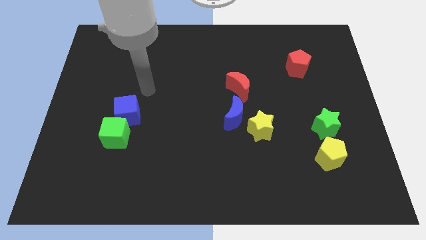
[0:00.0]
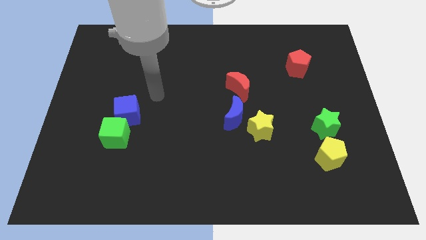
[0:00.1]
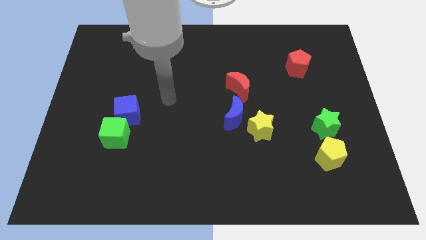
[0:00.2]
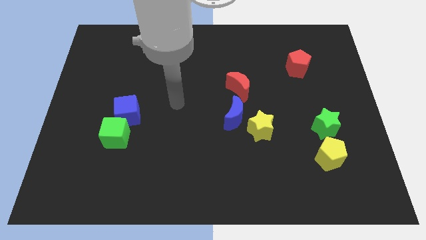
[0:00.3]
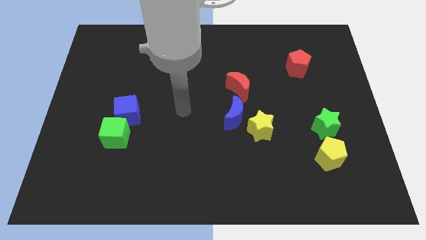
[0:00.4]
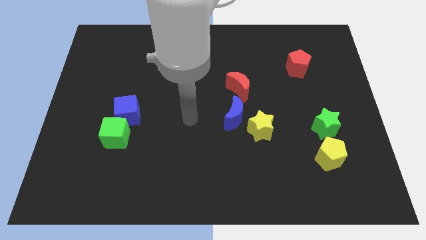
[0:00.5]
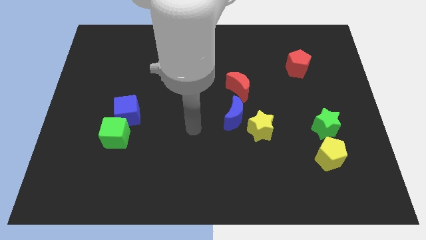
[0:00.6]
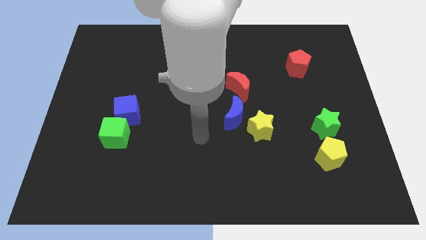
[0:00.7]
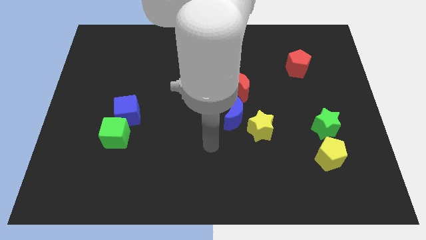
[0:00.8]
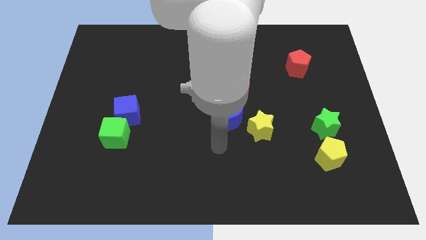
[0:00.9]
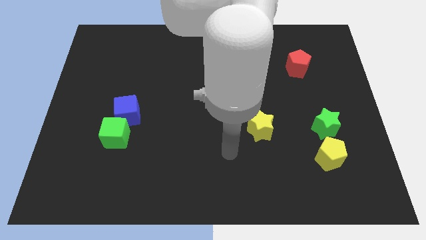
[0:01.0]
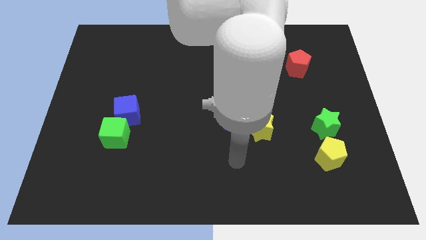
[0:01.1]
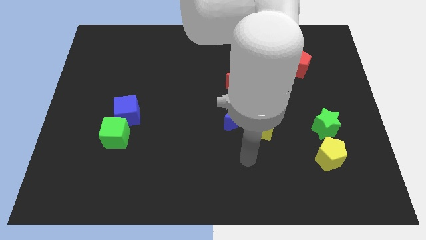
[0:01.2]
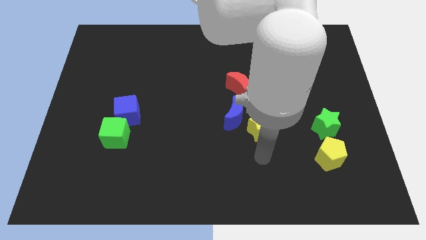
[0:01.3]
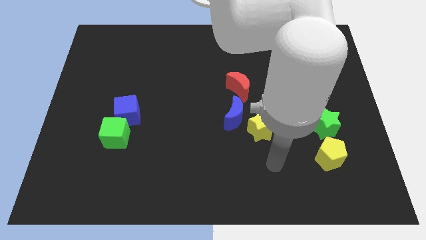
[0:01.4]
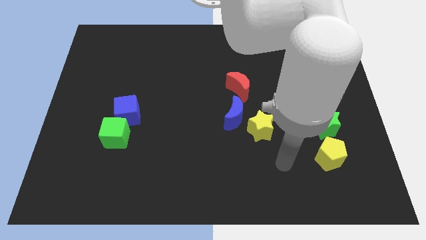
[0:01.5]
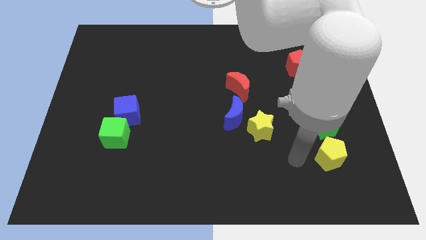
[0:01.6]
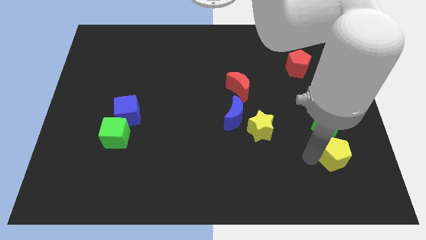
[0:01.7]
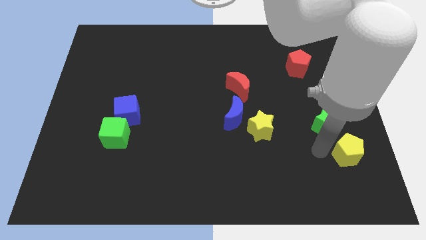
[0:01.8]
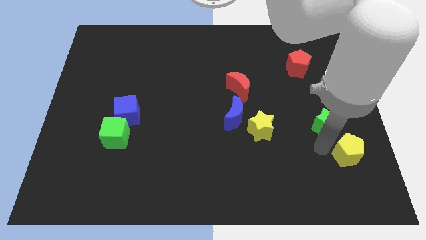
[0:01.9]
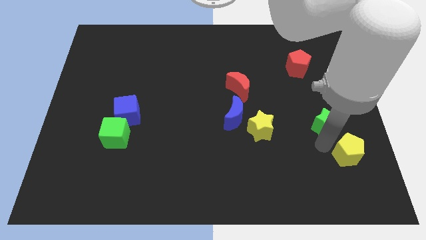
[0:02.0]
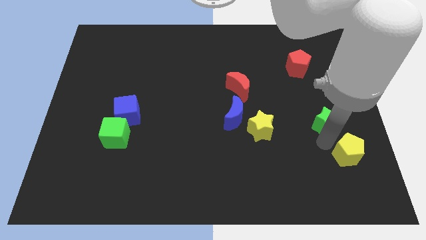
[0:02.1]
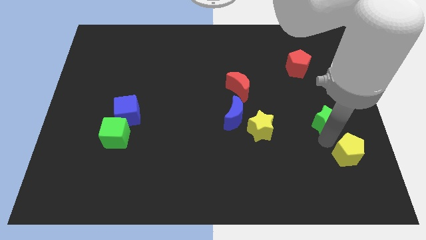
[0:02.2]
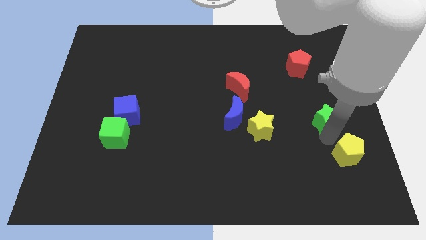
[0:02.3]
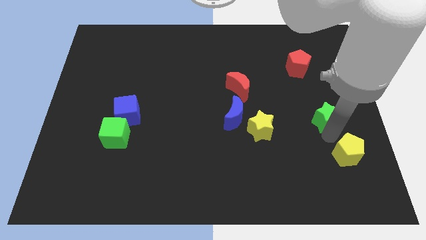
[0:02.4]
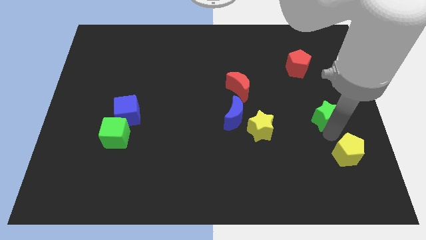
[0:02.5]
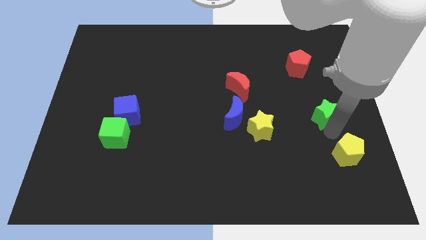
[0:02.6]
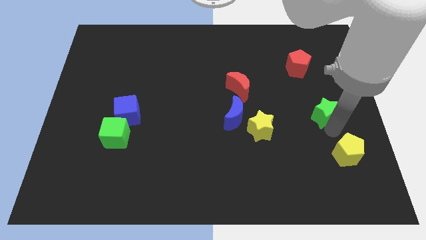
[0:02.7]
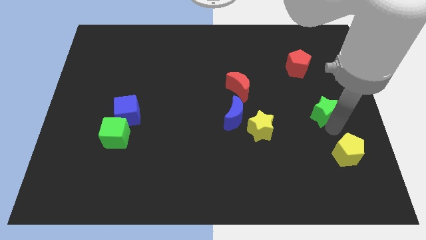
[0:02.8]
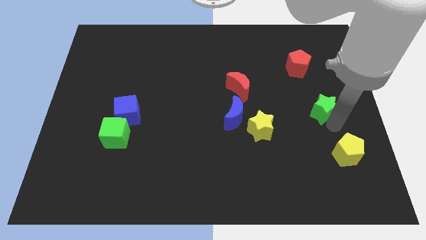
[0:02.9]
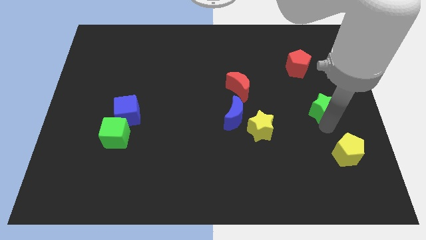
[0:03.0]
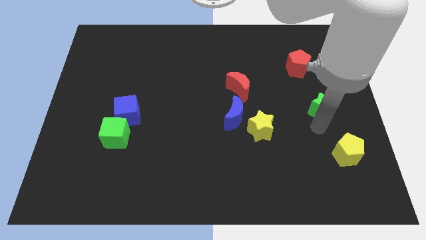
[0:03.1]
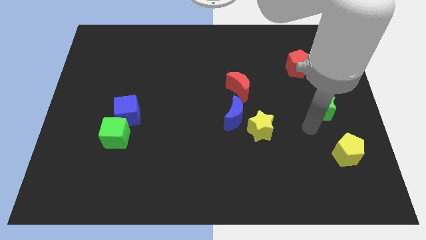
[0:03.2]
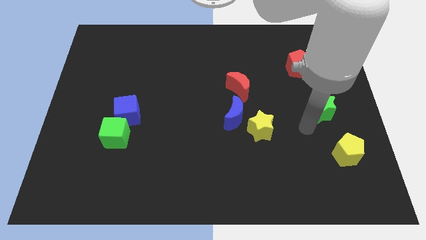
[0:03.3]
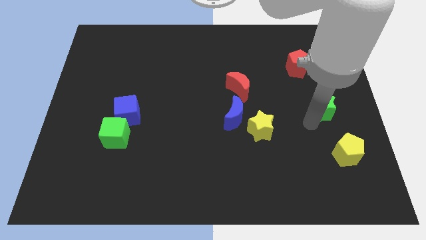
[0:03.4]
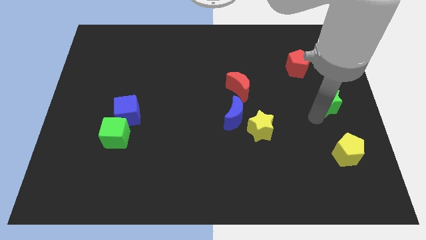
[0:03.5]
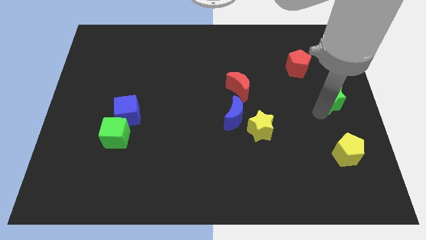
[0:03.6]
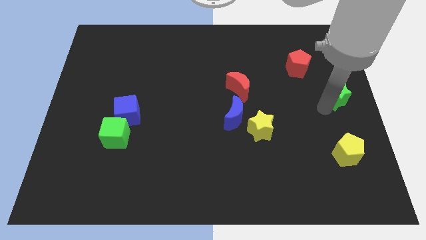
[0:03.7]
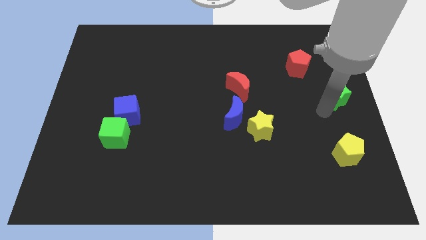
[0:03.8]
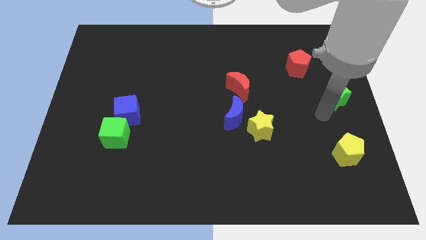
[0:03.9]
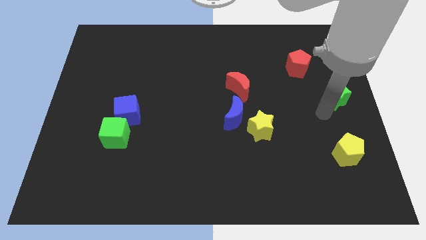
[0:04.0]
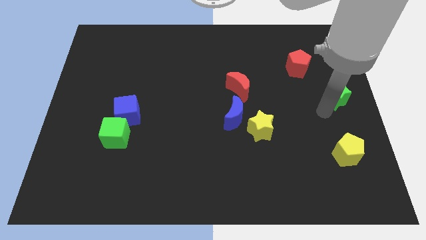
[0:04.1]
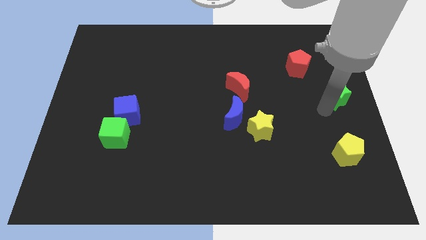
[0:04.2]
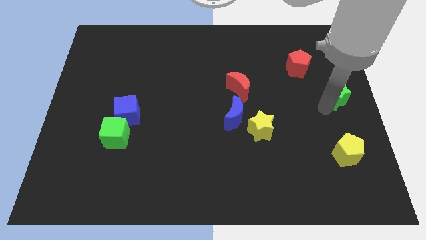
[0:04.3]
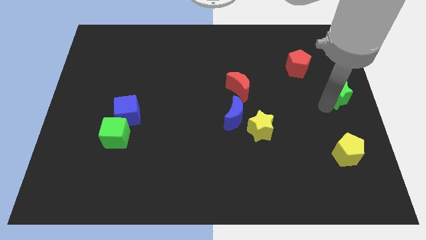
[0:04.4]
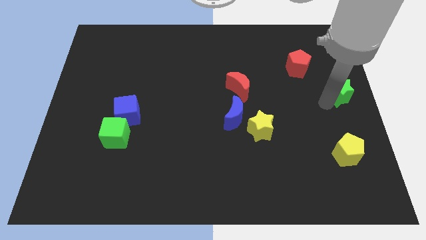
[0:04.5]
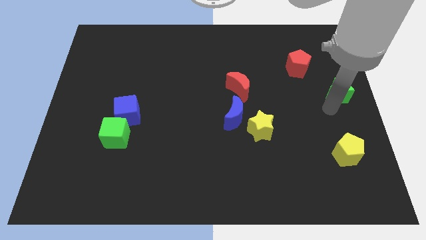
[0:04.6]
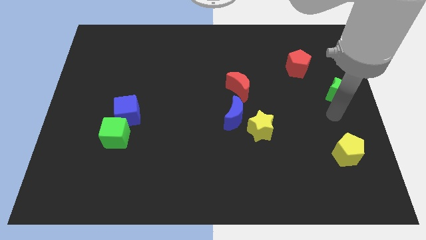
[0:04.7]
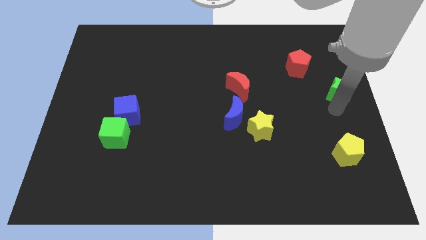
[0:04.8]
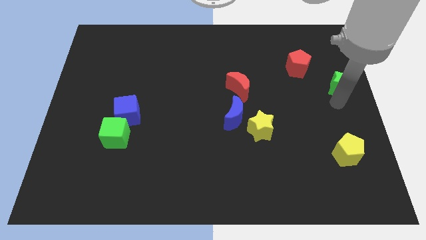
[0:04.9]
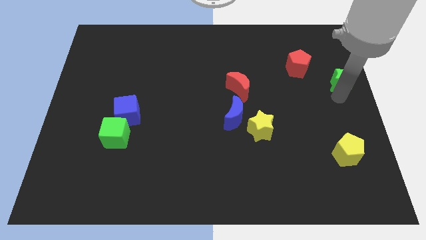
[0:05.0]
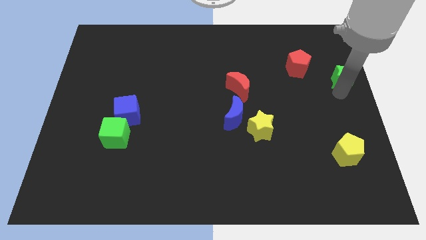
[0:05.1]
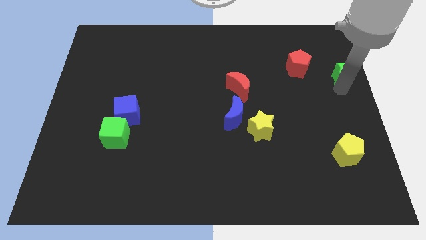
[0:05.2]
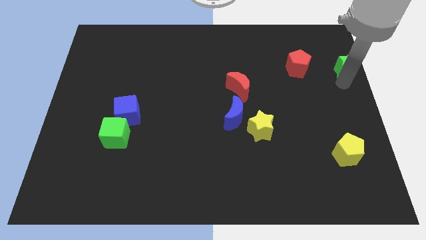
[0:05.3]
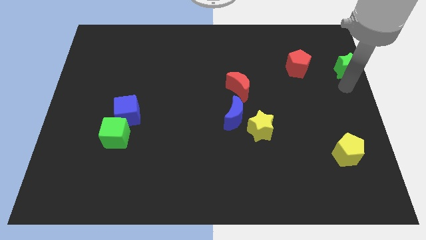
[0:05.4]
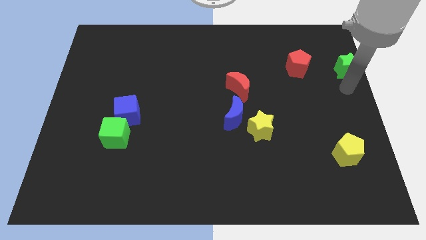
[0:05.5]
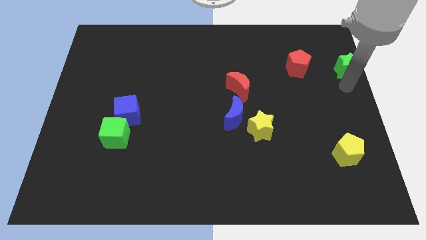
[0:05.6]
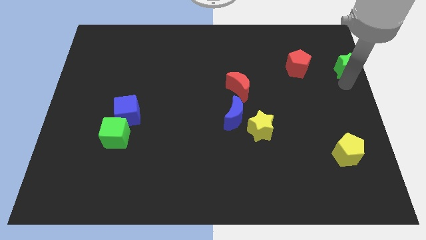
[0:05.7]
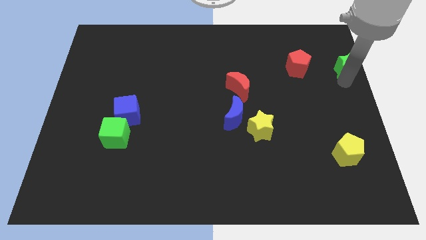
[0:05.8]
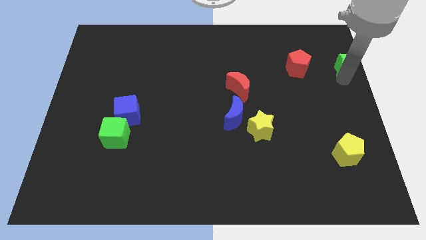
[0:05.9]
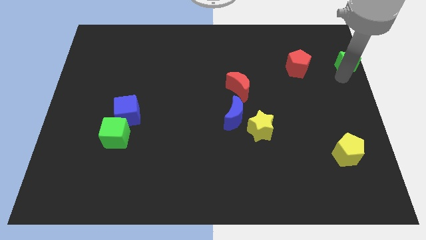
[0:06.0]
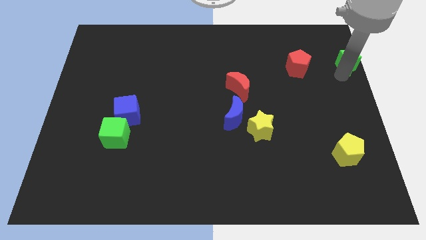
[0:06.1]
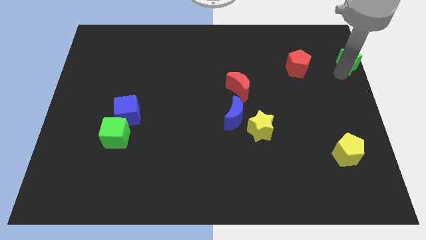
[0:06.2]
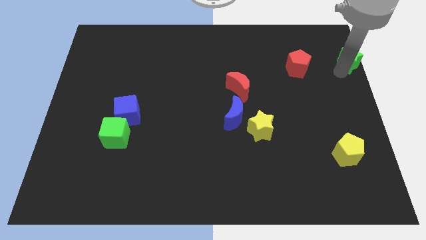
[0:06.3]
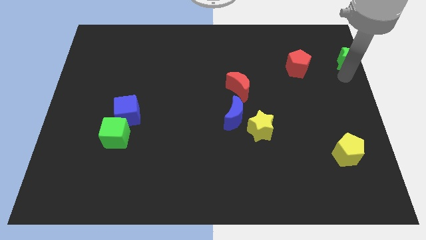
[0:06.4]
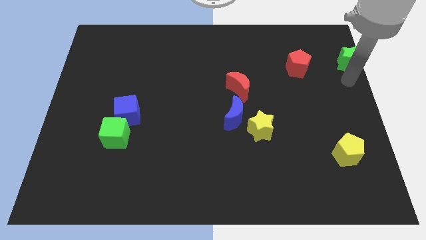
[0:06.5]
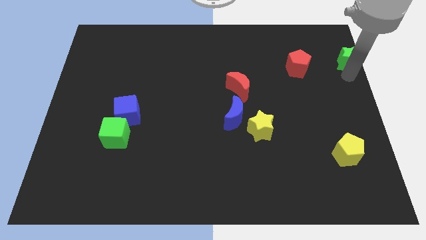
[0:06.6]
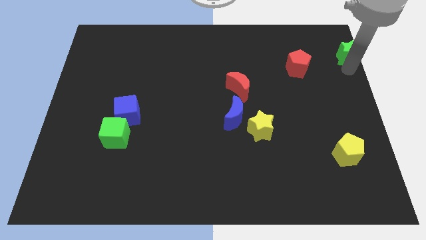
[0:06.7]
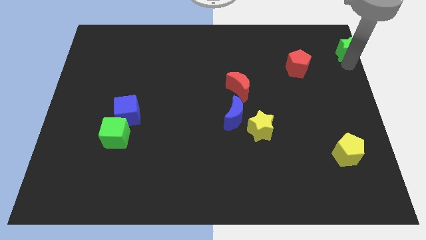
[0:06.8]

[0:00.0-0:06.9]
push the green star to the top right of the board
